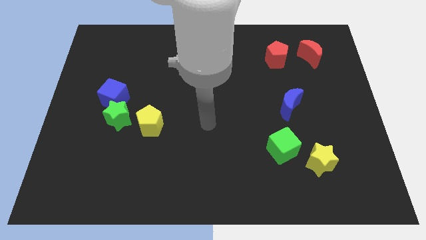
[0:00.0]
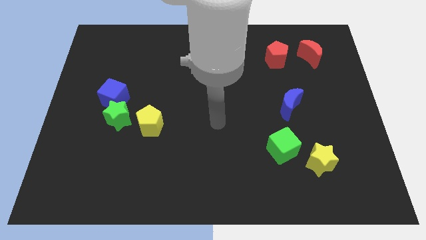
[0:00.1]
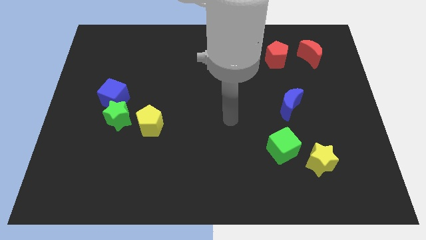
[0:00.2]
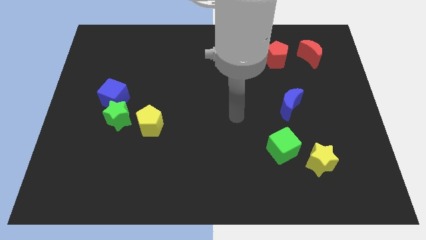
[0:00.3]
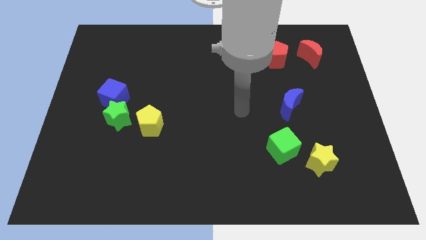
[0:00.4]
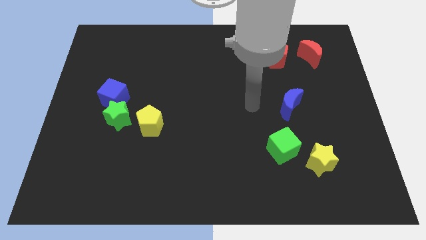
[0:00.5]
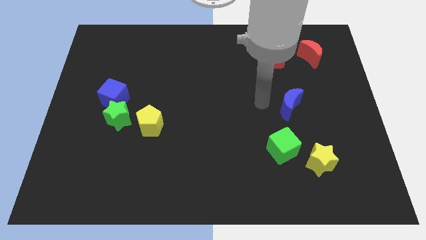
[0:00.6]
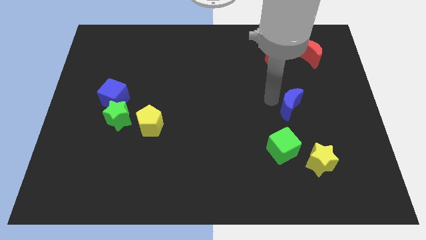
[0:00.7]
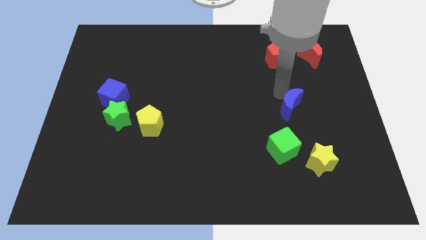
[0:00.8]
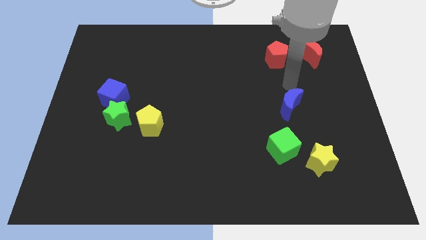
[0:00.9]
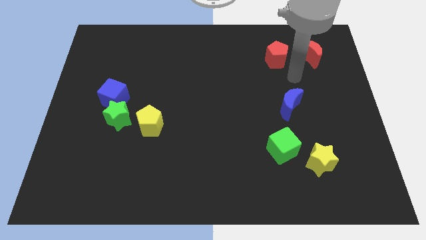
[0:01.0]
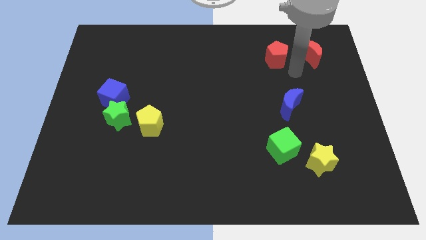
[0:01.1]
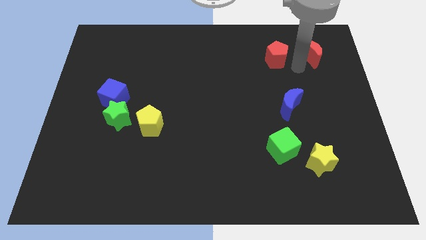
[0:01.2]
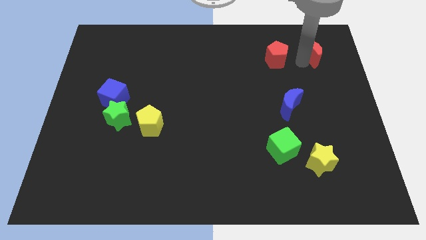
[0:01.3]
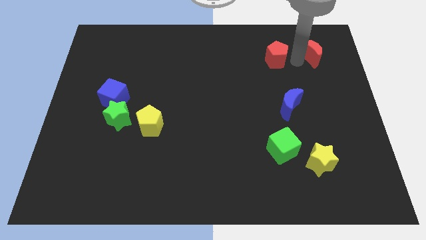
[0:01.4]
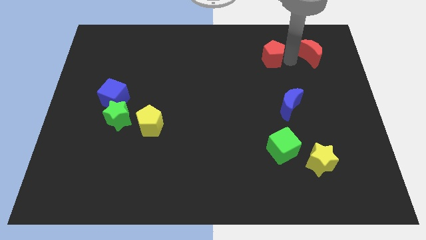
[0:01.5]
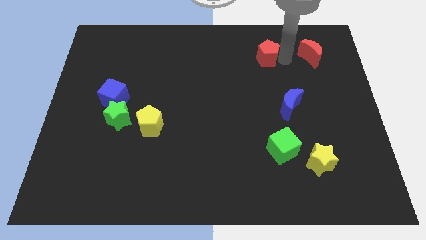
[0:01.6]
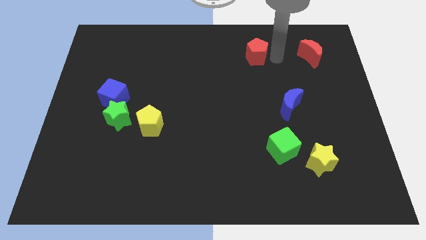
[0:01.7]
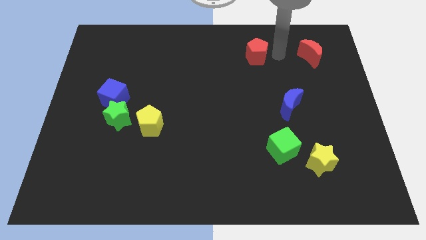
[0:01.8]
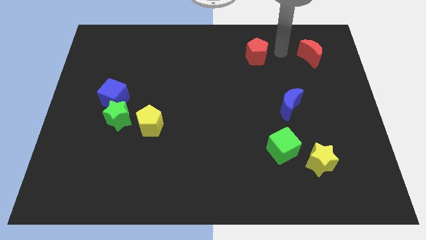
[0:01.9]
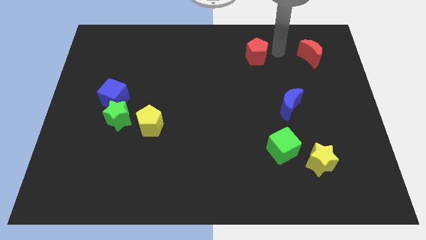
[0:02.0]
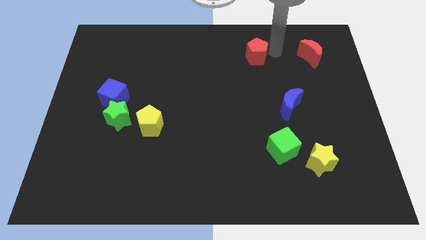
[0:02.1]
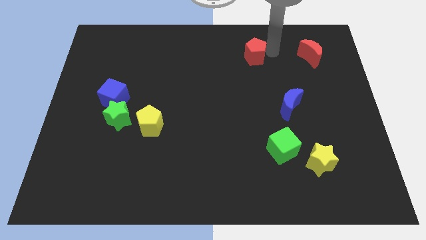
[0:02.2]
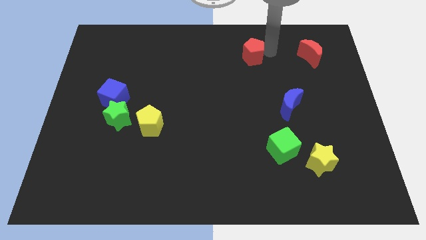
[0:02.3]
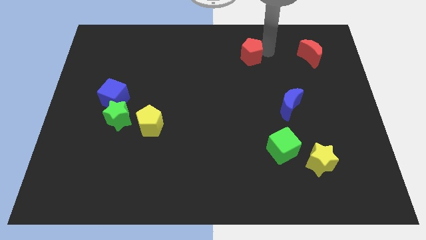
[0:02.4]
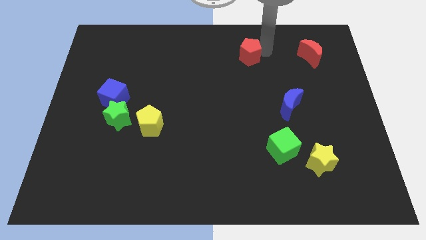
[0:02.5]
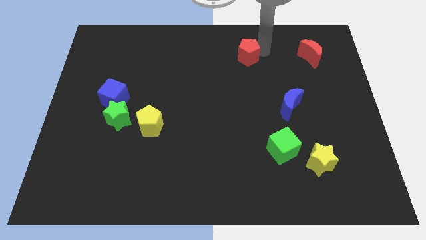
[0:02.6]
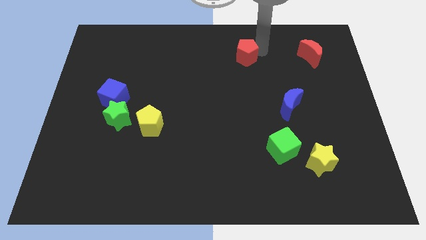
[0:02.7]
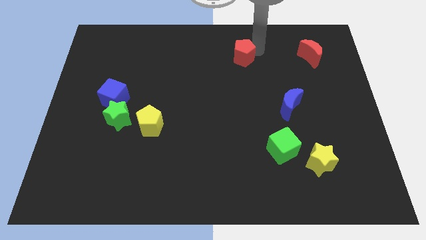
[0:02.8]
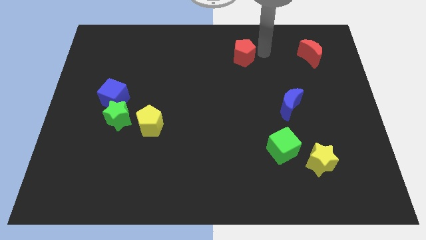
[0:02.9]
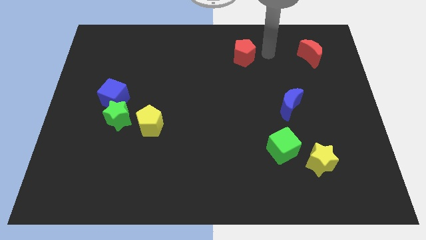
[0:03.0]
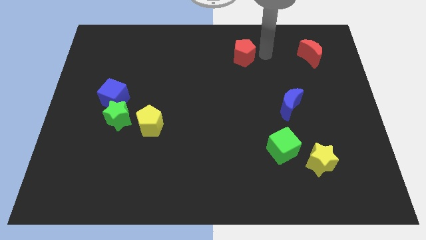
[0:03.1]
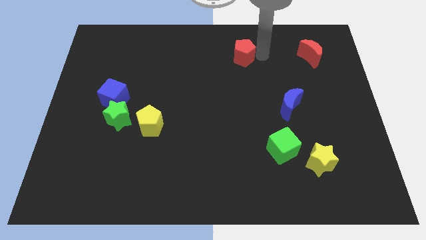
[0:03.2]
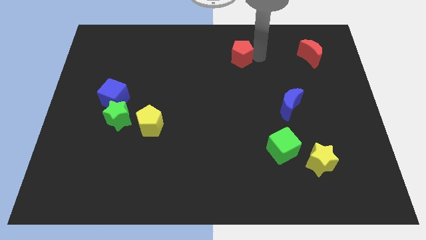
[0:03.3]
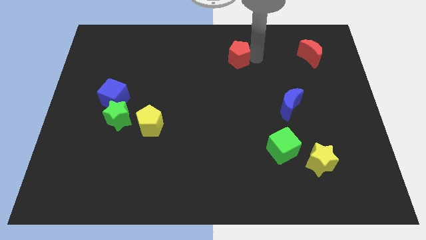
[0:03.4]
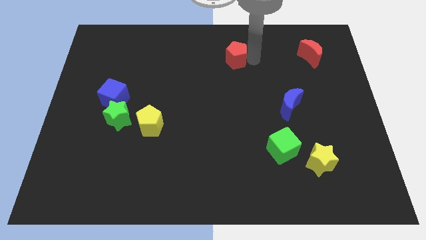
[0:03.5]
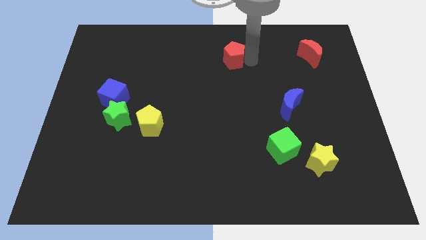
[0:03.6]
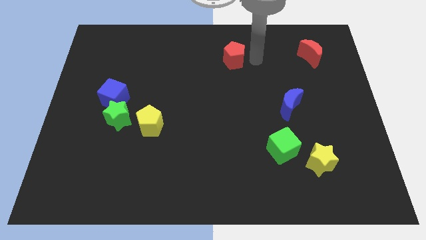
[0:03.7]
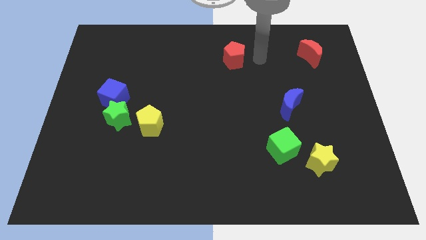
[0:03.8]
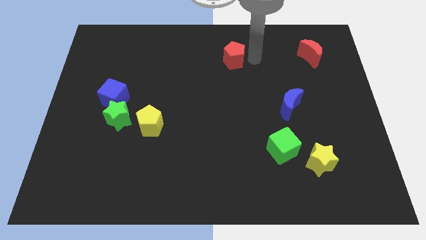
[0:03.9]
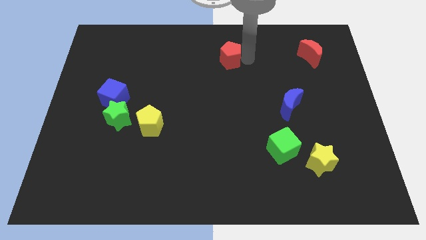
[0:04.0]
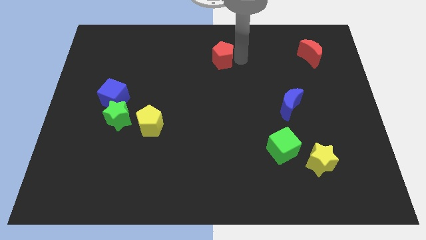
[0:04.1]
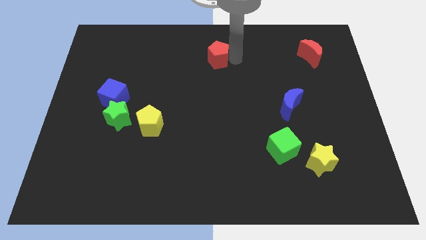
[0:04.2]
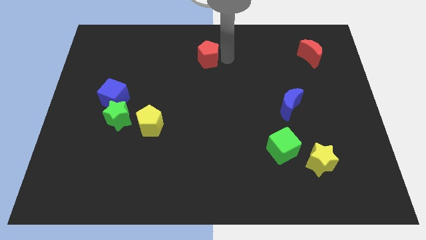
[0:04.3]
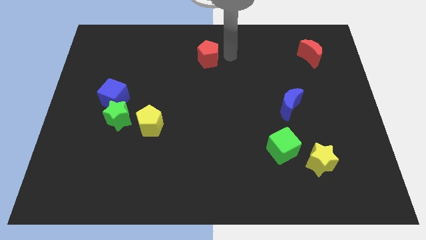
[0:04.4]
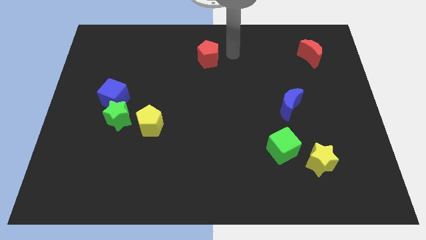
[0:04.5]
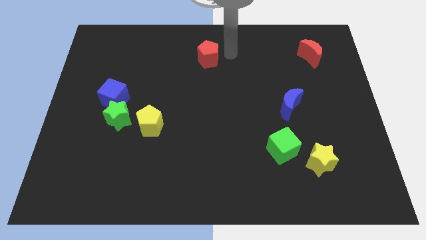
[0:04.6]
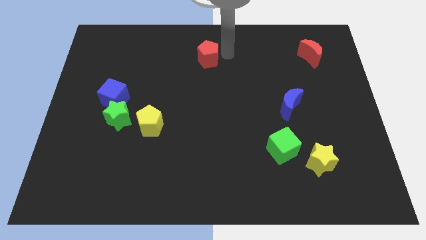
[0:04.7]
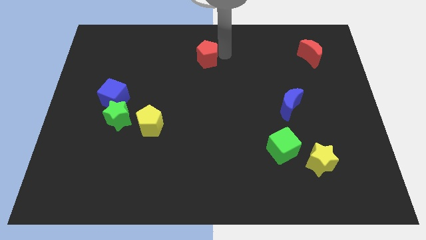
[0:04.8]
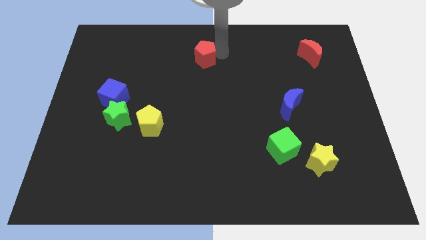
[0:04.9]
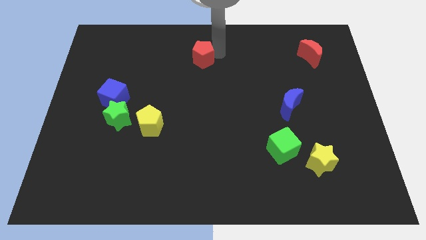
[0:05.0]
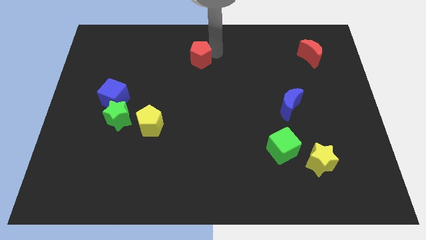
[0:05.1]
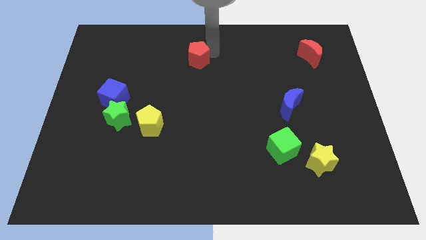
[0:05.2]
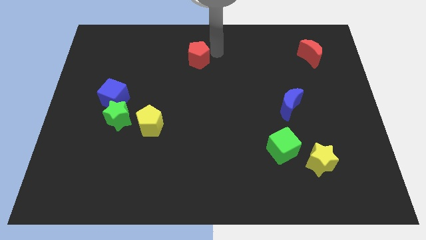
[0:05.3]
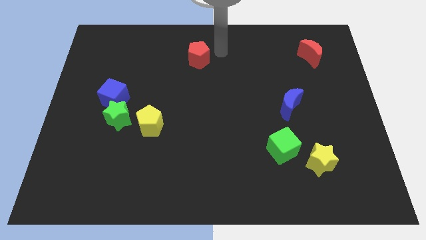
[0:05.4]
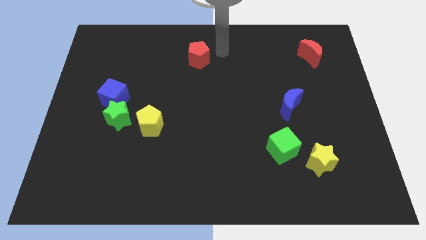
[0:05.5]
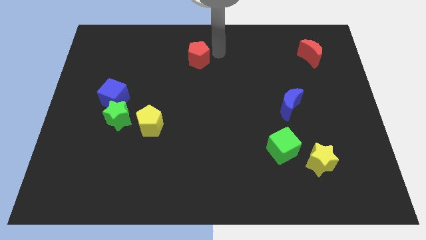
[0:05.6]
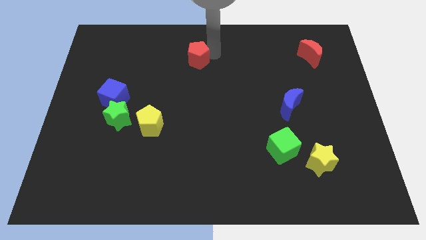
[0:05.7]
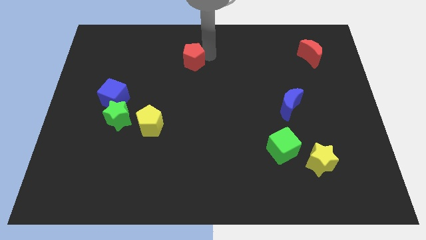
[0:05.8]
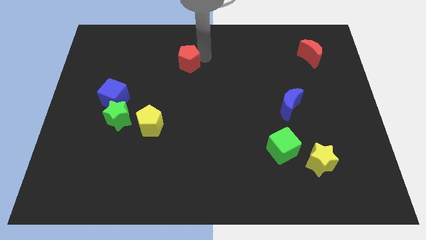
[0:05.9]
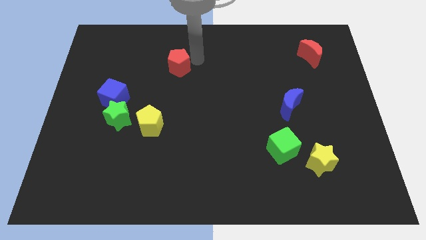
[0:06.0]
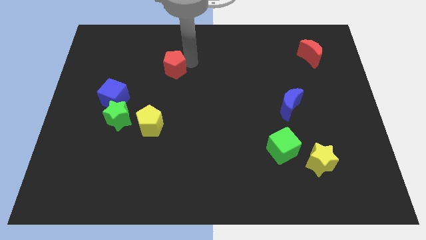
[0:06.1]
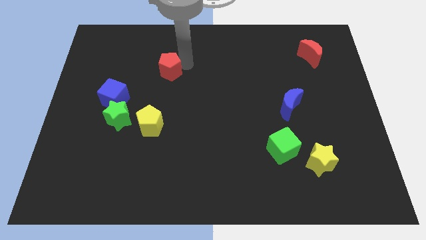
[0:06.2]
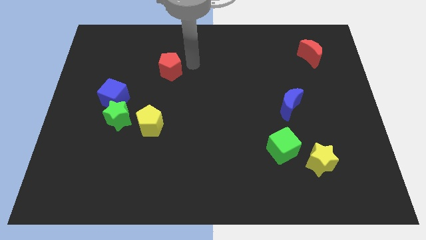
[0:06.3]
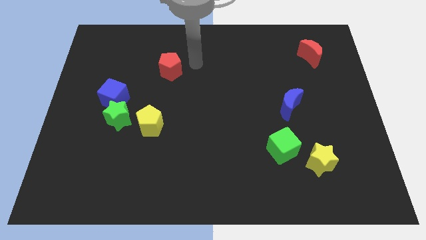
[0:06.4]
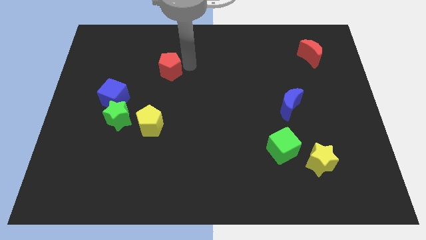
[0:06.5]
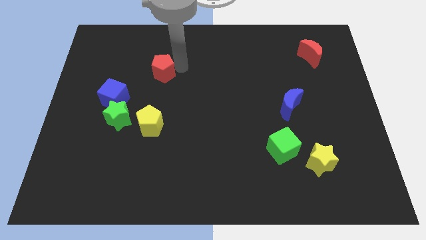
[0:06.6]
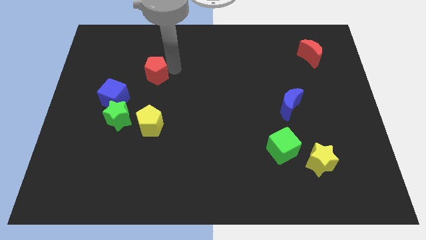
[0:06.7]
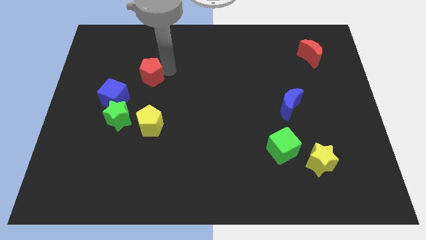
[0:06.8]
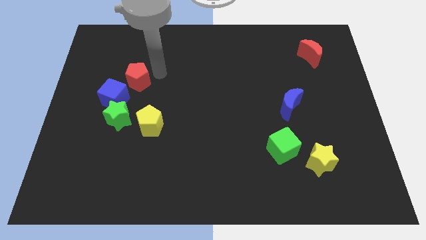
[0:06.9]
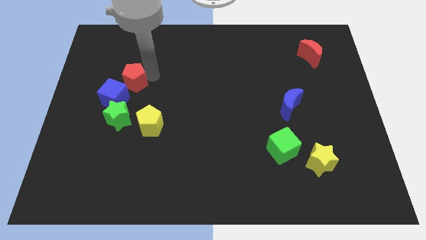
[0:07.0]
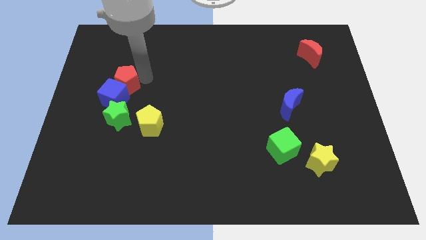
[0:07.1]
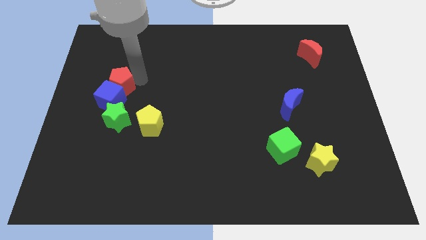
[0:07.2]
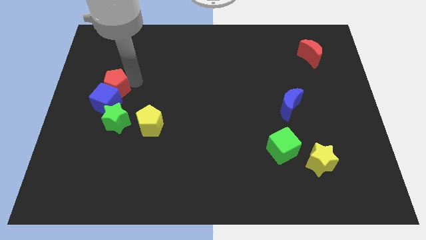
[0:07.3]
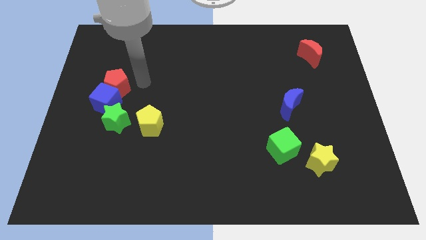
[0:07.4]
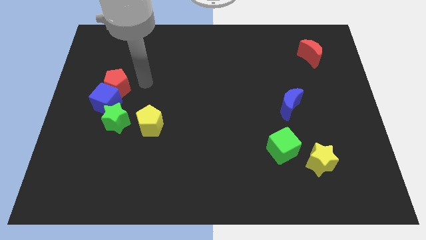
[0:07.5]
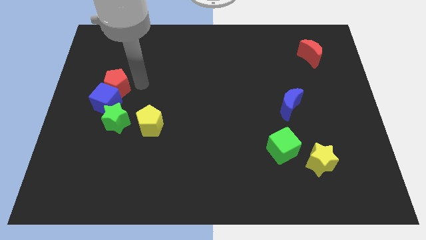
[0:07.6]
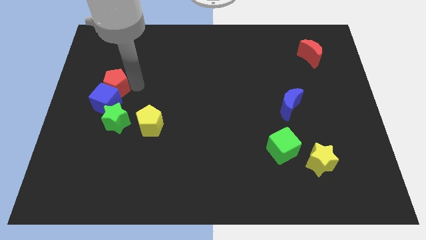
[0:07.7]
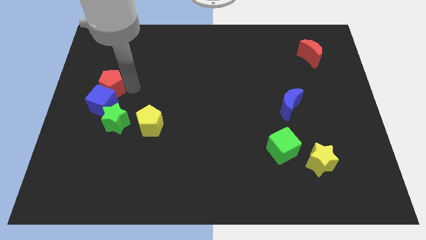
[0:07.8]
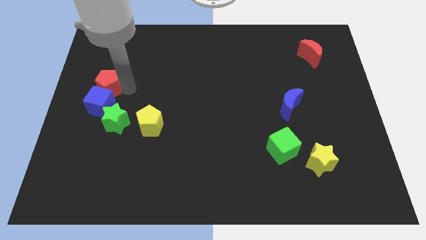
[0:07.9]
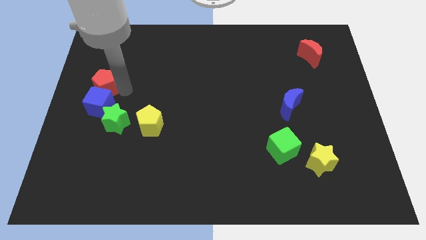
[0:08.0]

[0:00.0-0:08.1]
push the red pentagon to the left side of the board
